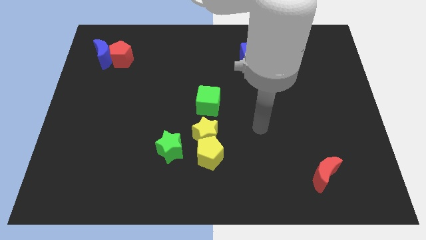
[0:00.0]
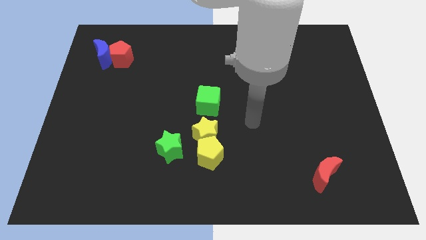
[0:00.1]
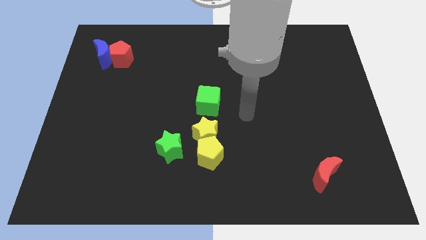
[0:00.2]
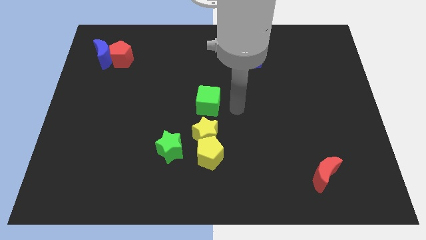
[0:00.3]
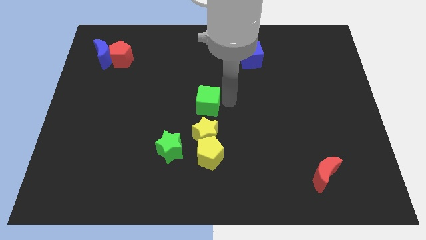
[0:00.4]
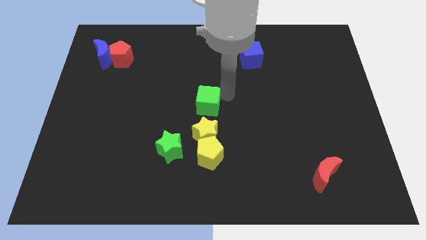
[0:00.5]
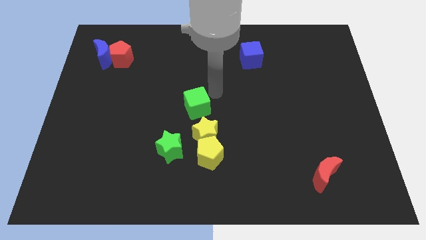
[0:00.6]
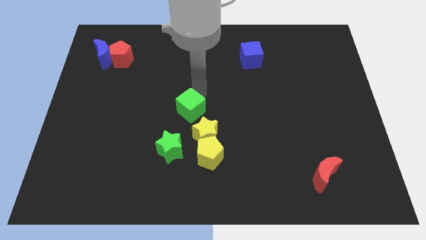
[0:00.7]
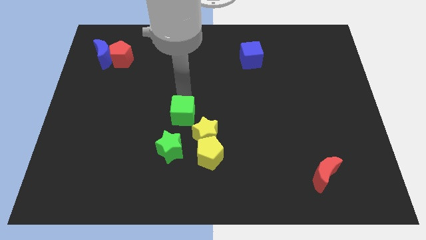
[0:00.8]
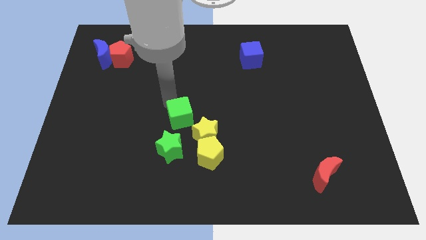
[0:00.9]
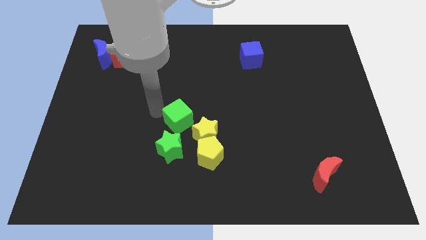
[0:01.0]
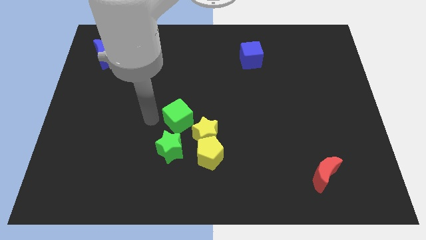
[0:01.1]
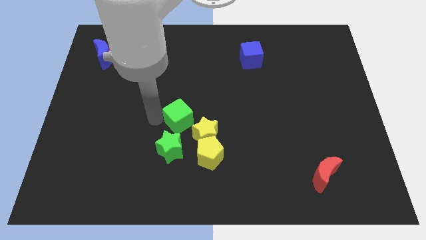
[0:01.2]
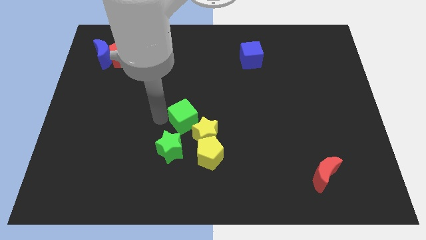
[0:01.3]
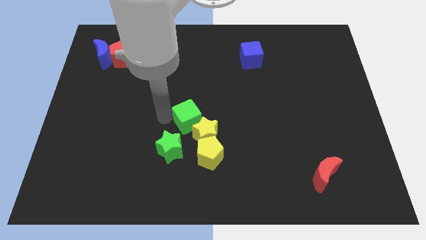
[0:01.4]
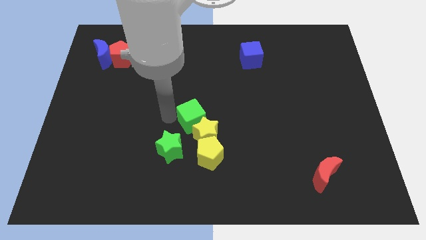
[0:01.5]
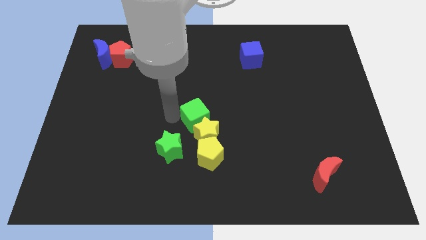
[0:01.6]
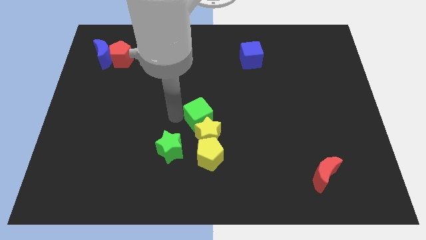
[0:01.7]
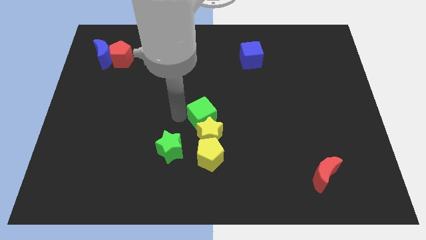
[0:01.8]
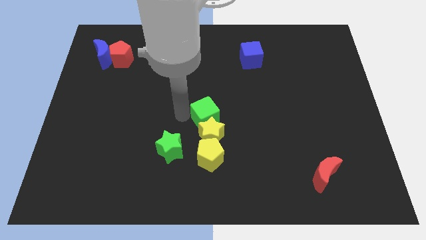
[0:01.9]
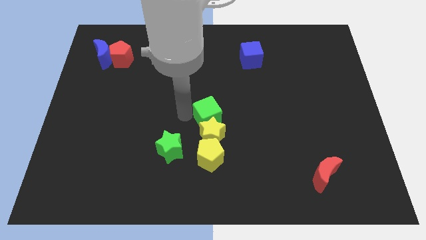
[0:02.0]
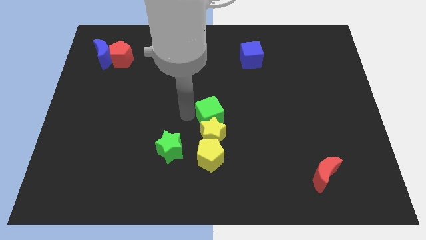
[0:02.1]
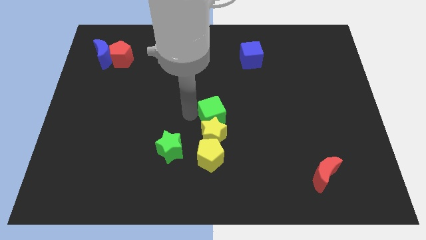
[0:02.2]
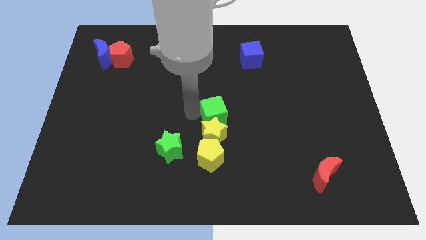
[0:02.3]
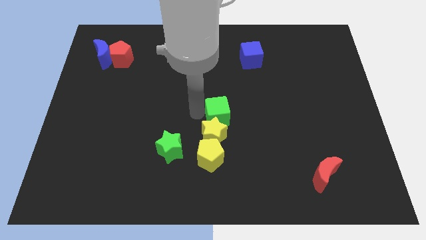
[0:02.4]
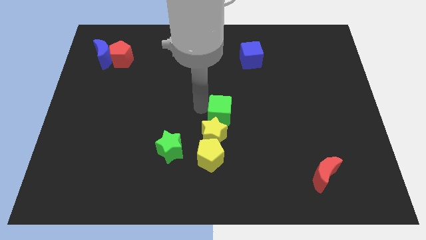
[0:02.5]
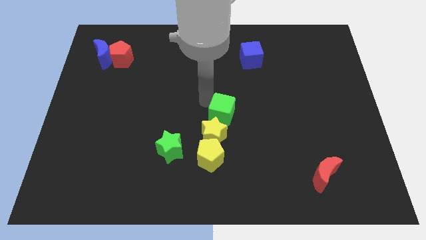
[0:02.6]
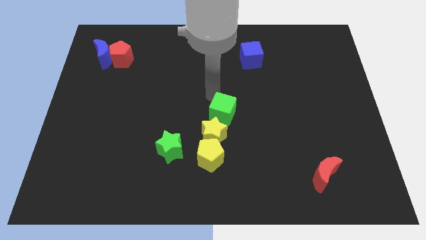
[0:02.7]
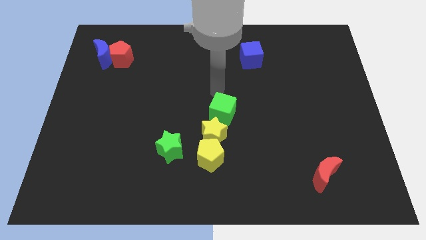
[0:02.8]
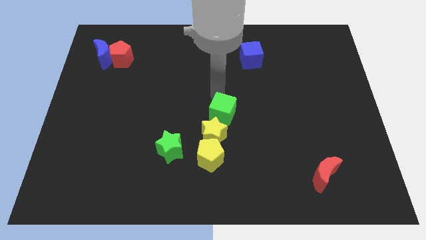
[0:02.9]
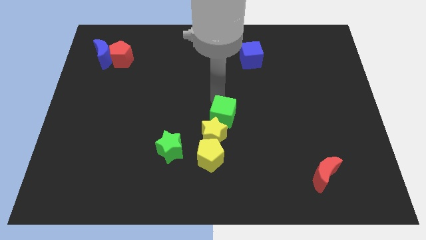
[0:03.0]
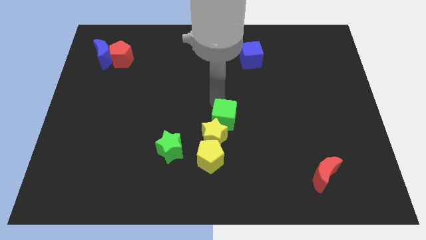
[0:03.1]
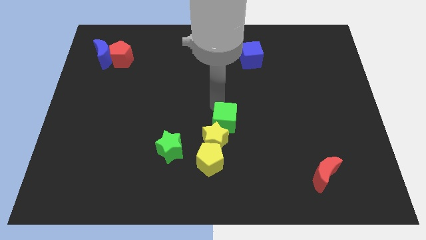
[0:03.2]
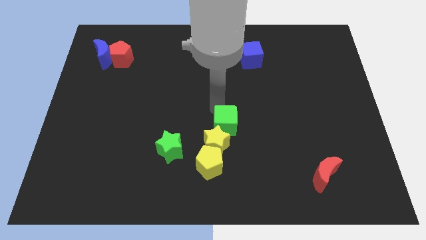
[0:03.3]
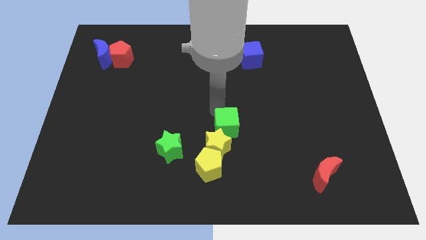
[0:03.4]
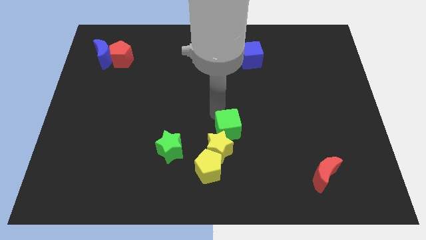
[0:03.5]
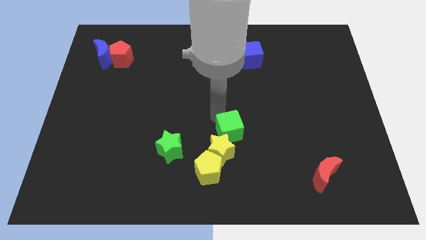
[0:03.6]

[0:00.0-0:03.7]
slightly move the green cube down

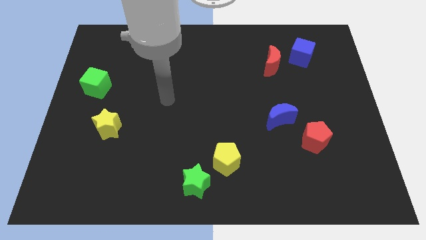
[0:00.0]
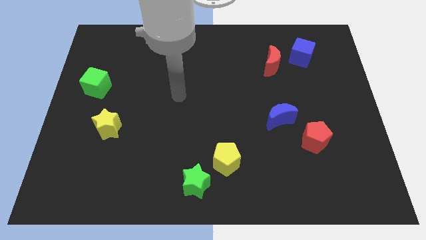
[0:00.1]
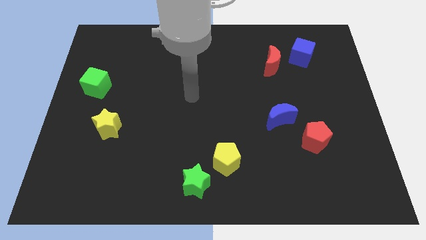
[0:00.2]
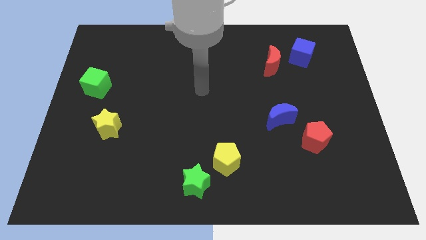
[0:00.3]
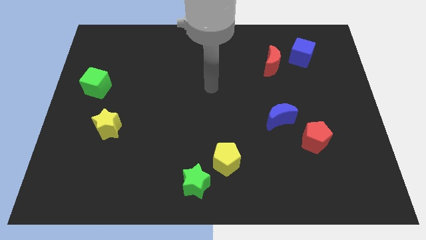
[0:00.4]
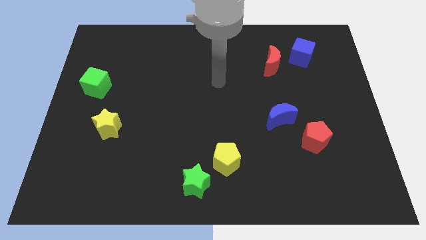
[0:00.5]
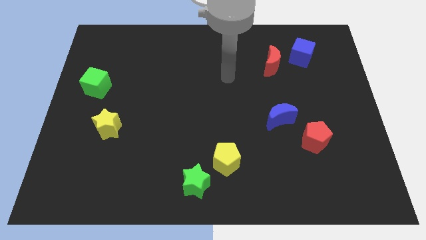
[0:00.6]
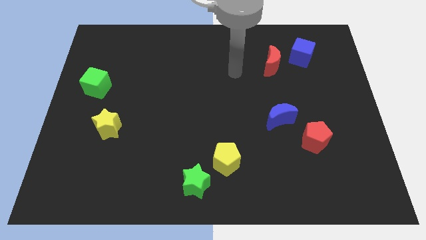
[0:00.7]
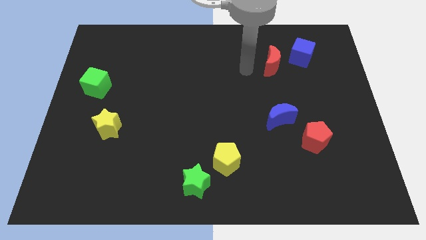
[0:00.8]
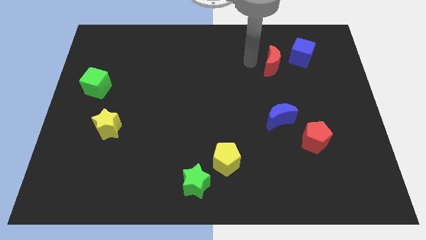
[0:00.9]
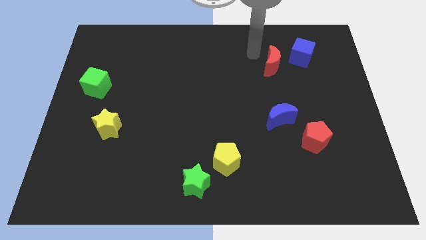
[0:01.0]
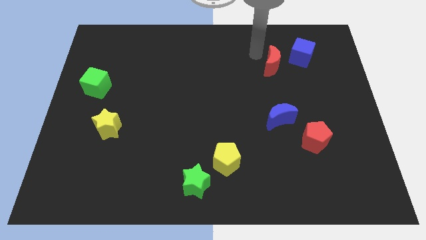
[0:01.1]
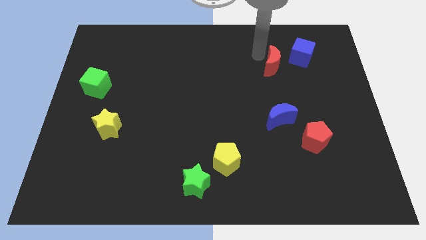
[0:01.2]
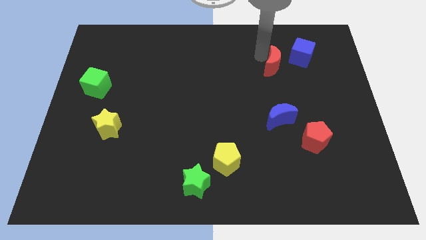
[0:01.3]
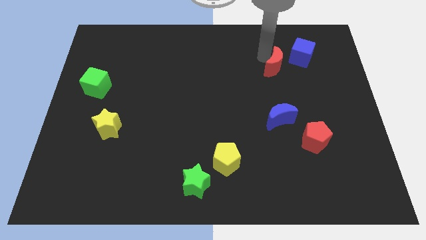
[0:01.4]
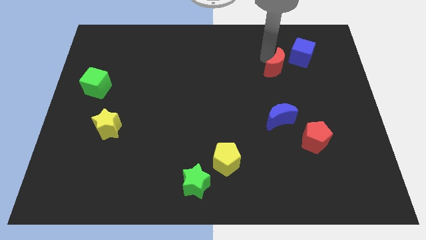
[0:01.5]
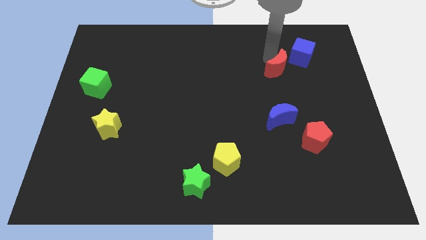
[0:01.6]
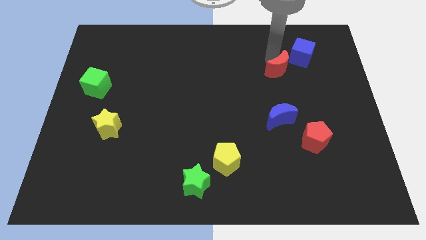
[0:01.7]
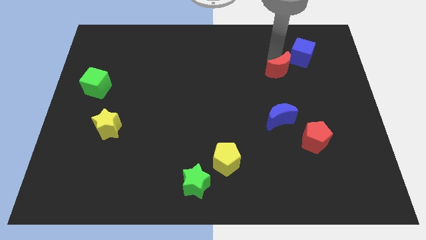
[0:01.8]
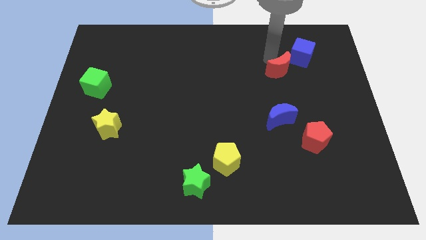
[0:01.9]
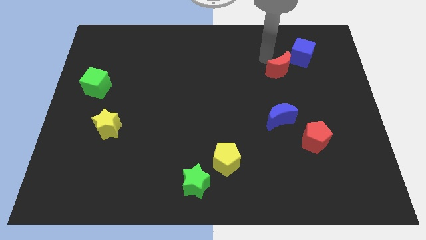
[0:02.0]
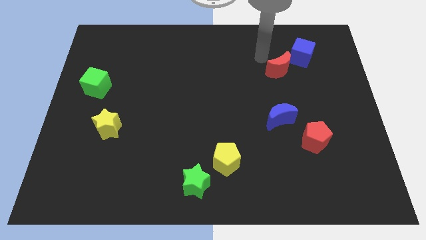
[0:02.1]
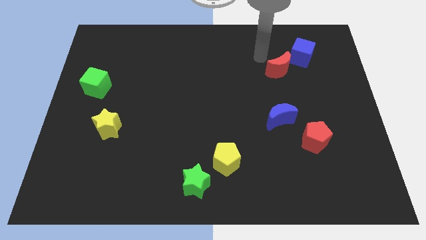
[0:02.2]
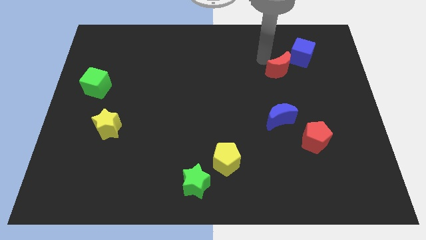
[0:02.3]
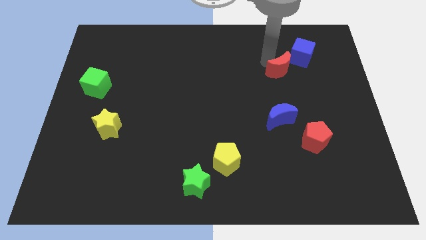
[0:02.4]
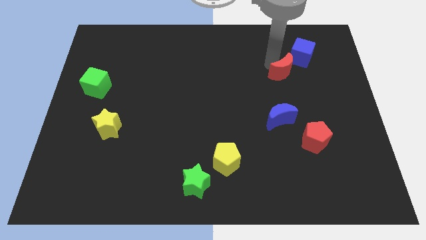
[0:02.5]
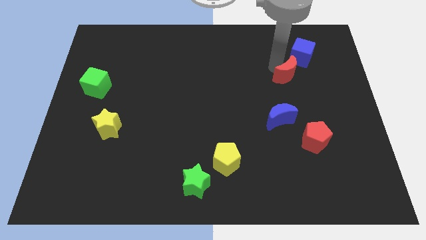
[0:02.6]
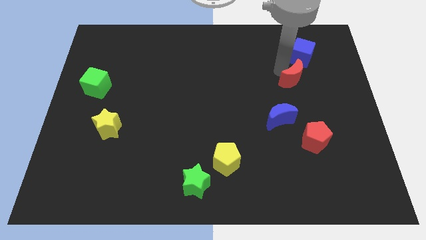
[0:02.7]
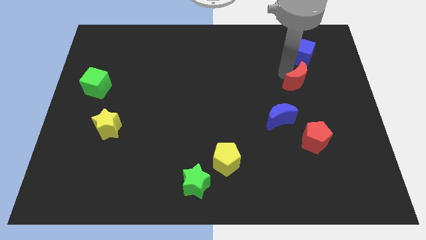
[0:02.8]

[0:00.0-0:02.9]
slide the red moon downwards and then right a little bit

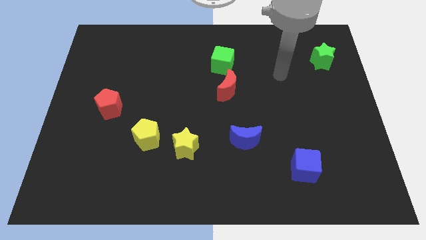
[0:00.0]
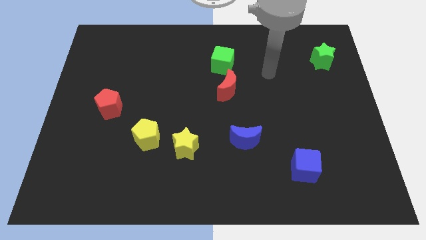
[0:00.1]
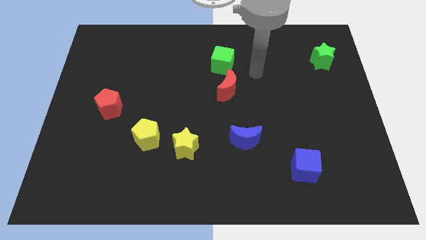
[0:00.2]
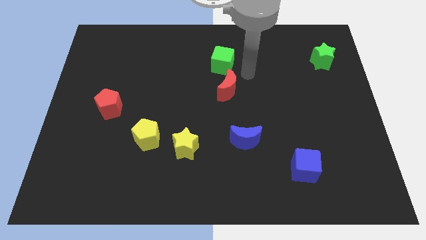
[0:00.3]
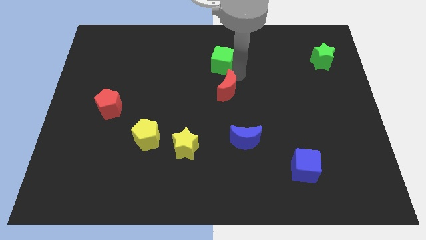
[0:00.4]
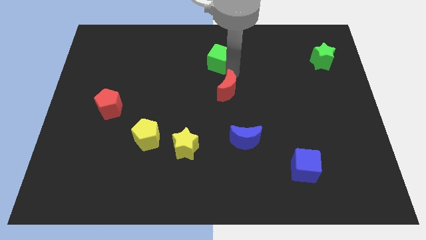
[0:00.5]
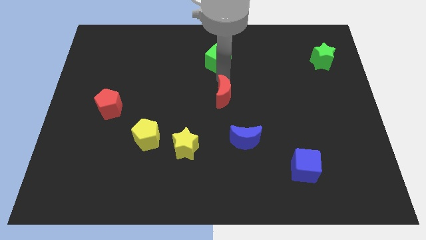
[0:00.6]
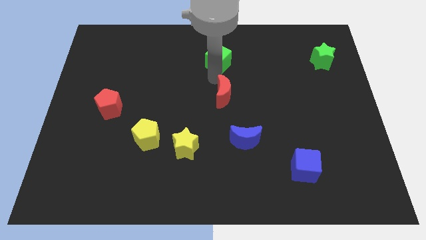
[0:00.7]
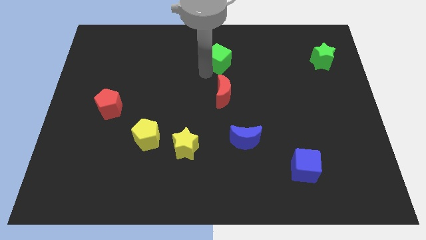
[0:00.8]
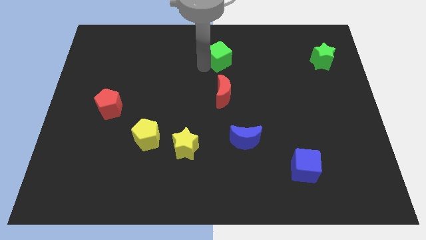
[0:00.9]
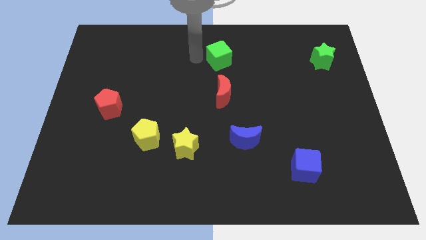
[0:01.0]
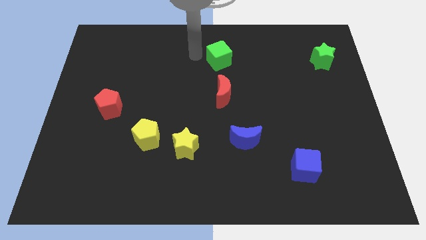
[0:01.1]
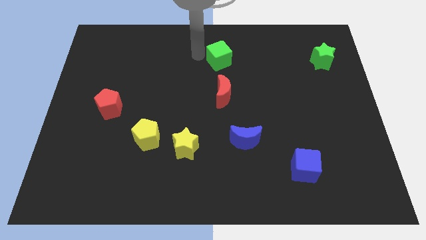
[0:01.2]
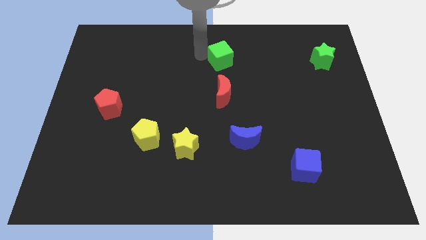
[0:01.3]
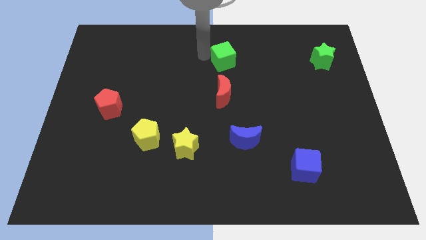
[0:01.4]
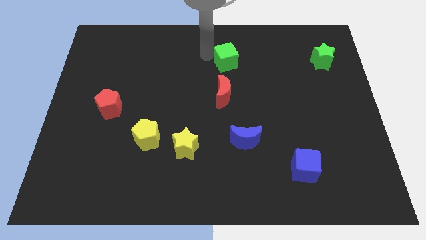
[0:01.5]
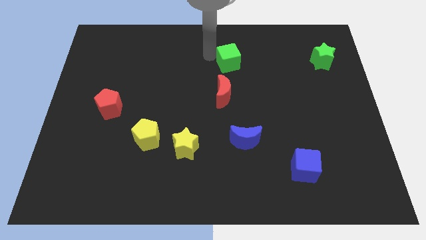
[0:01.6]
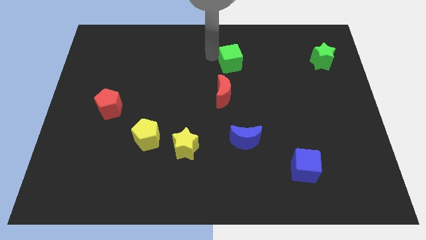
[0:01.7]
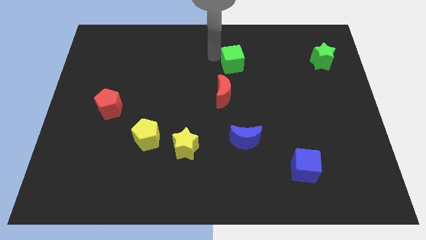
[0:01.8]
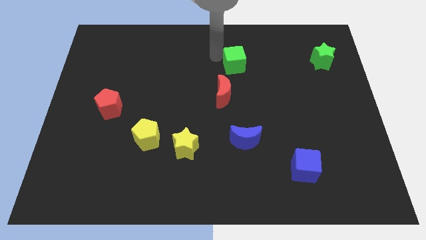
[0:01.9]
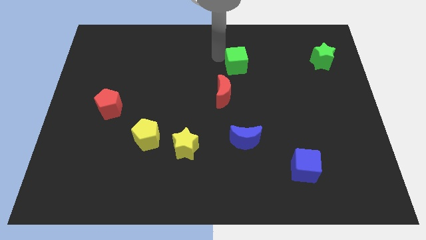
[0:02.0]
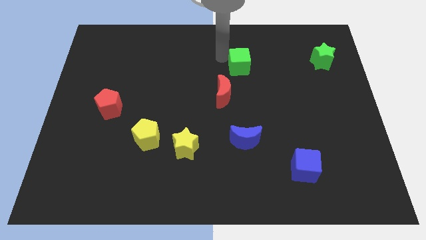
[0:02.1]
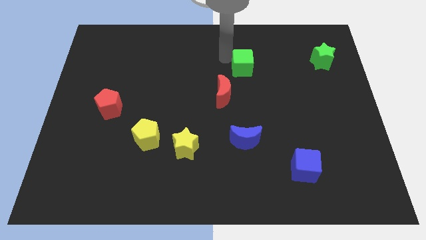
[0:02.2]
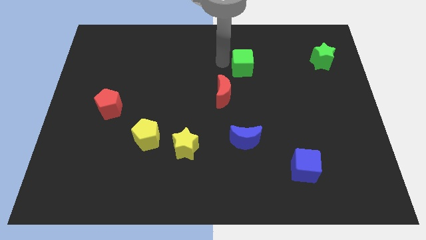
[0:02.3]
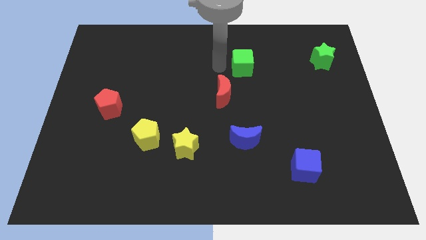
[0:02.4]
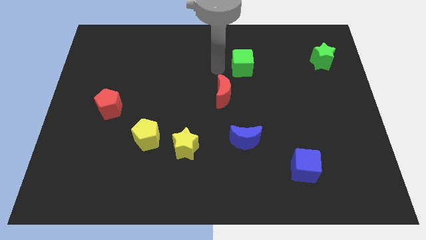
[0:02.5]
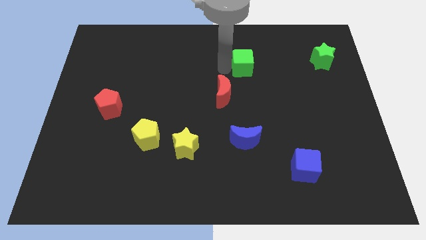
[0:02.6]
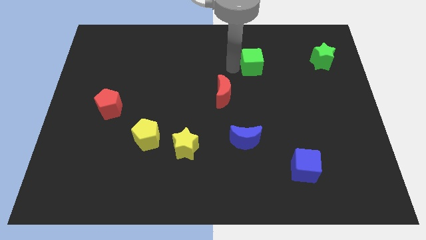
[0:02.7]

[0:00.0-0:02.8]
slightly move the green cube to the right
